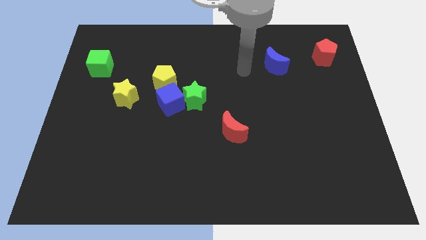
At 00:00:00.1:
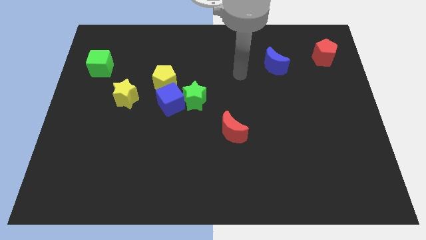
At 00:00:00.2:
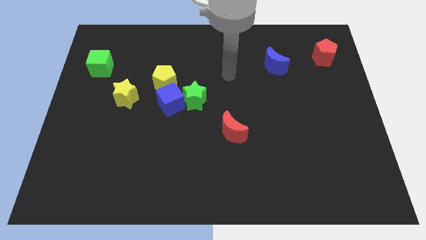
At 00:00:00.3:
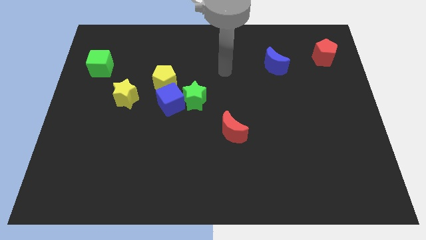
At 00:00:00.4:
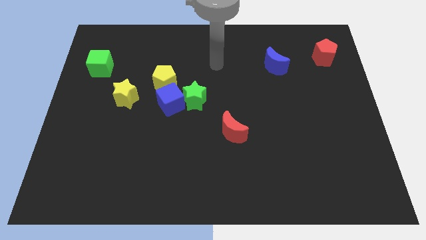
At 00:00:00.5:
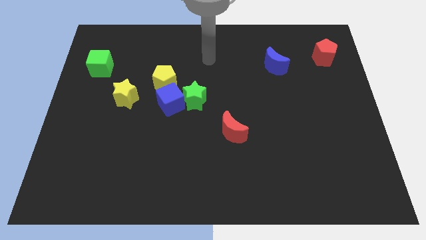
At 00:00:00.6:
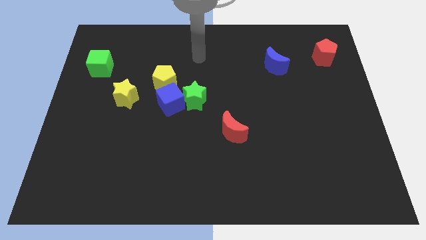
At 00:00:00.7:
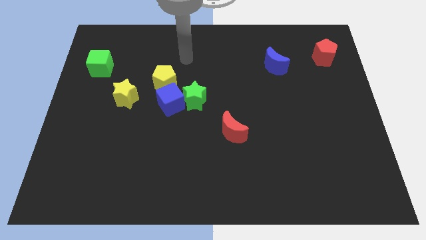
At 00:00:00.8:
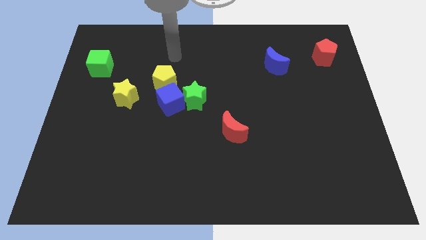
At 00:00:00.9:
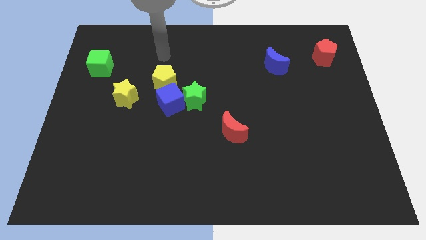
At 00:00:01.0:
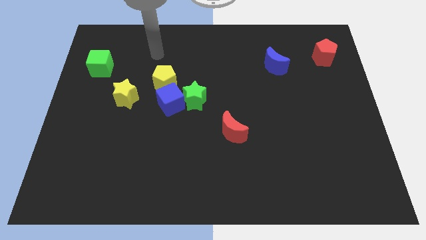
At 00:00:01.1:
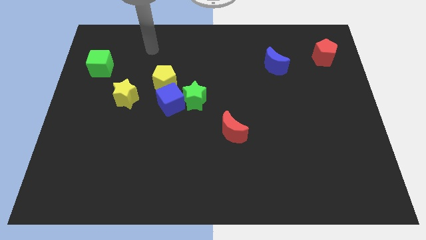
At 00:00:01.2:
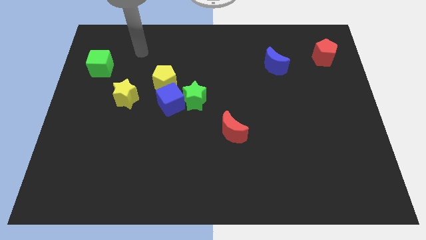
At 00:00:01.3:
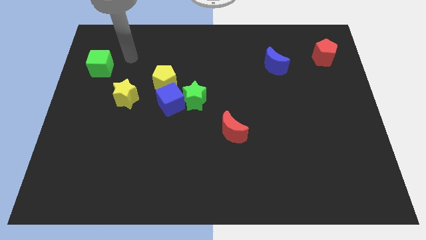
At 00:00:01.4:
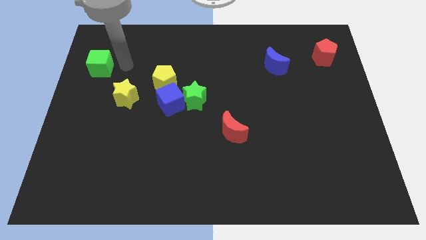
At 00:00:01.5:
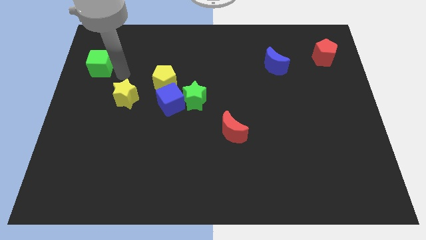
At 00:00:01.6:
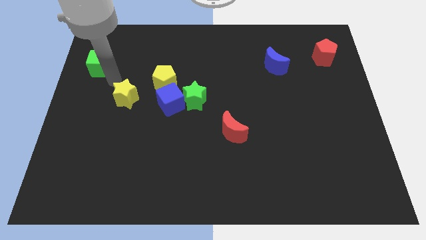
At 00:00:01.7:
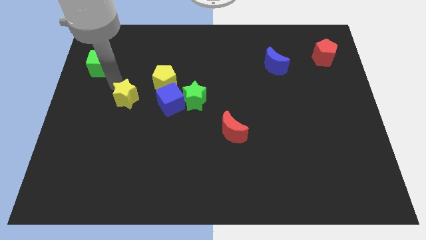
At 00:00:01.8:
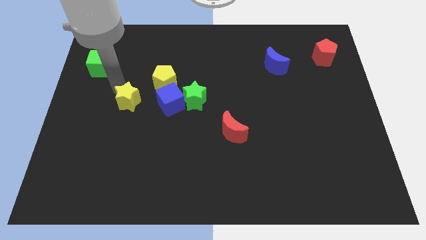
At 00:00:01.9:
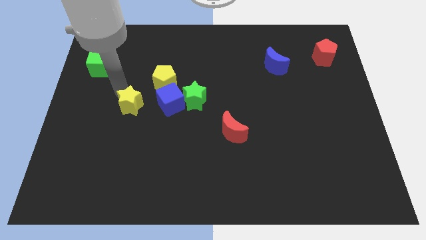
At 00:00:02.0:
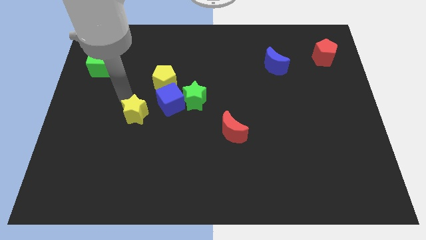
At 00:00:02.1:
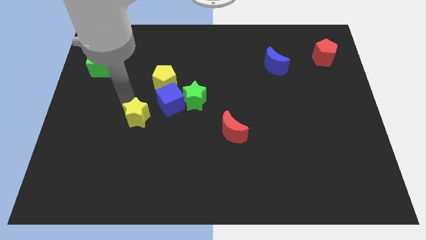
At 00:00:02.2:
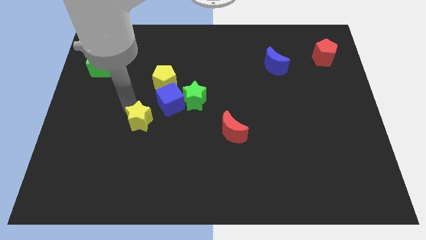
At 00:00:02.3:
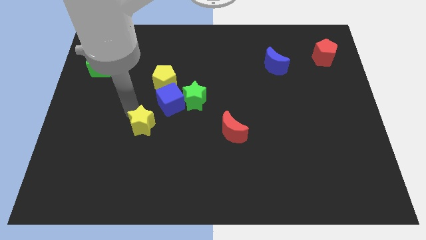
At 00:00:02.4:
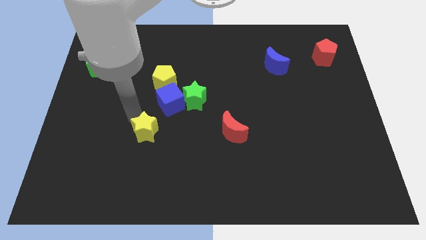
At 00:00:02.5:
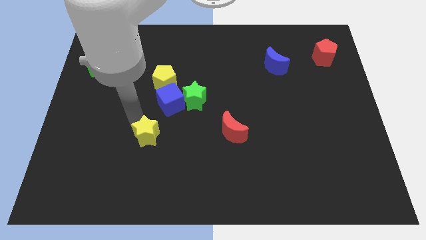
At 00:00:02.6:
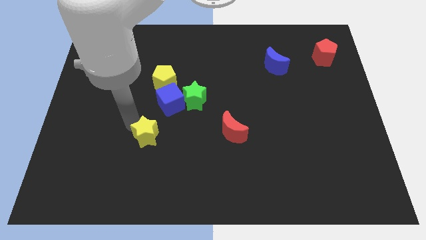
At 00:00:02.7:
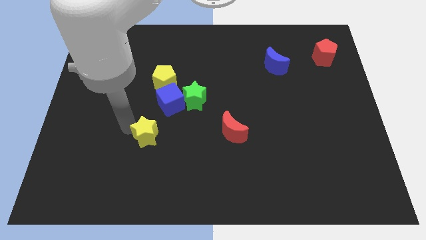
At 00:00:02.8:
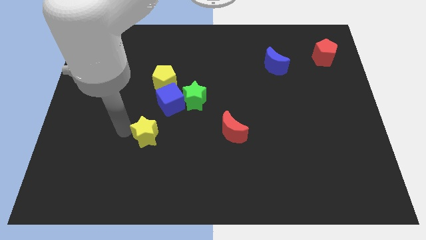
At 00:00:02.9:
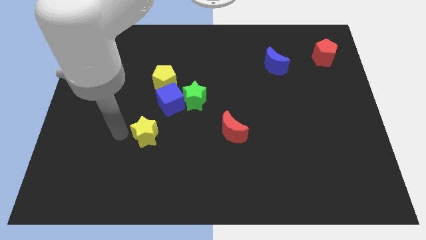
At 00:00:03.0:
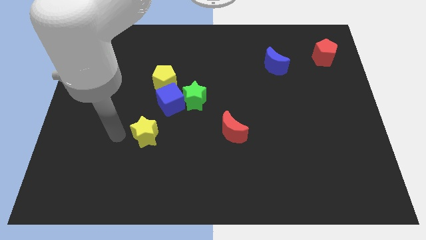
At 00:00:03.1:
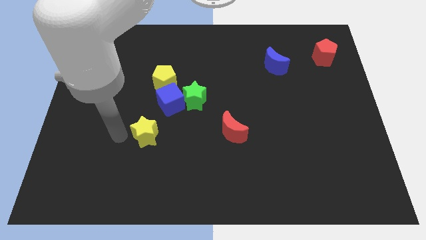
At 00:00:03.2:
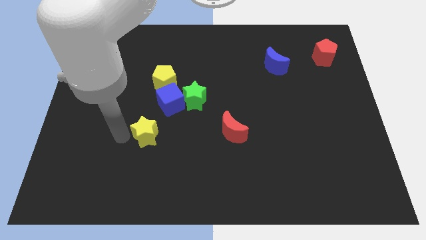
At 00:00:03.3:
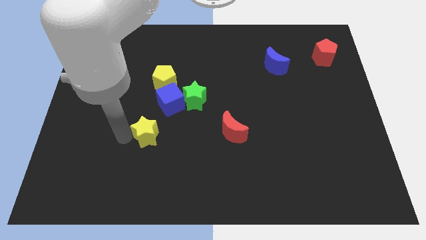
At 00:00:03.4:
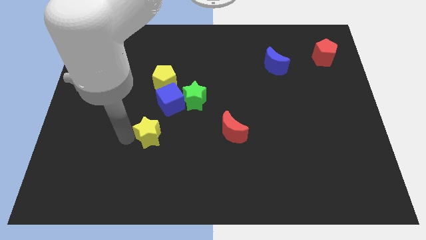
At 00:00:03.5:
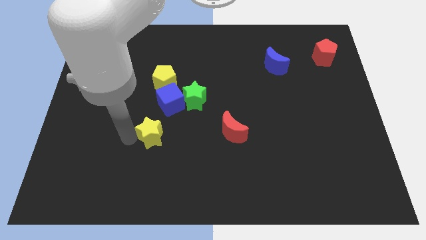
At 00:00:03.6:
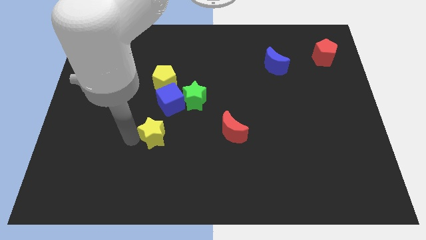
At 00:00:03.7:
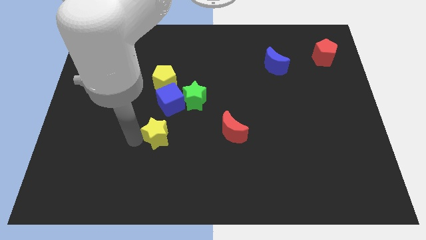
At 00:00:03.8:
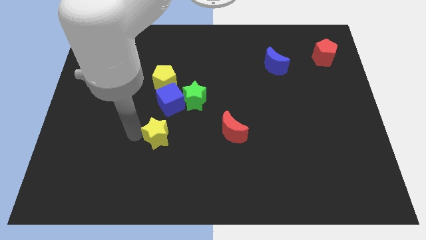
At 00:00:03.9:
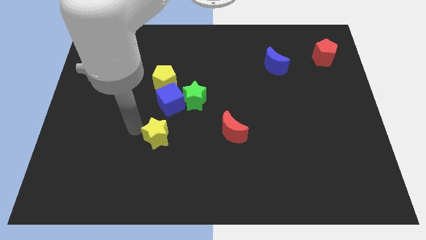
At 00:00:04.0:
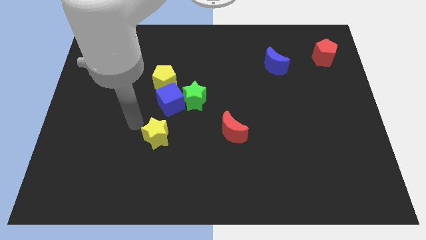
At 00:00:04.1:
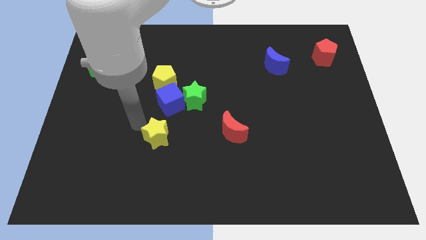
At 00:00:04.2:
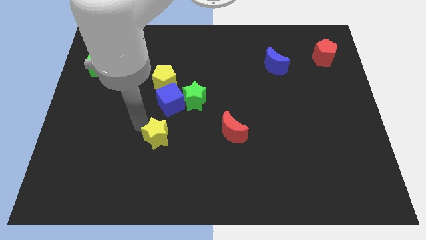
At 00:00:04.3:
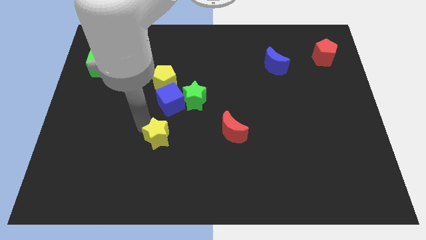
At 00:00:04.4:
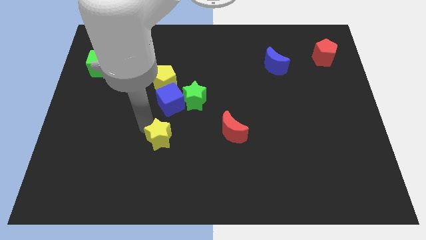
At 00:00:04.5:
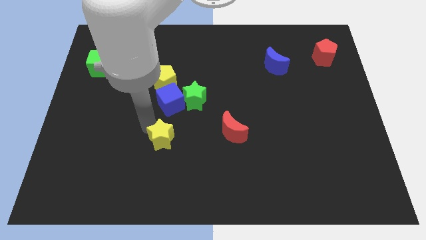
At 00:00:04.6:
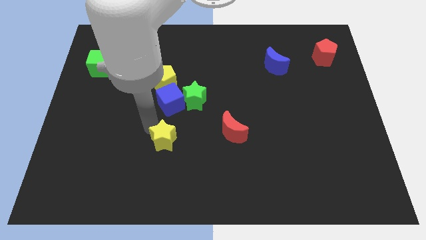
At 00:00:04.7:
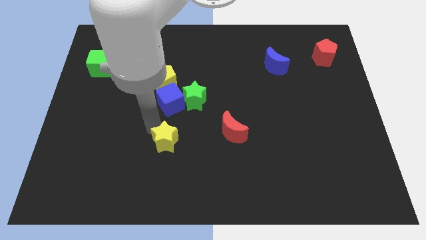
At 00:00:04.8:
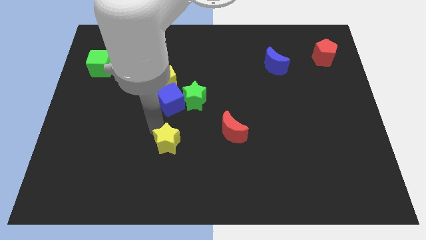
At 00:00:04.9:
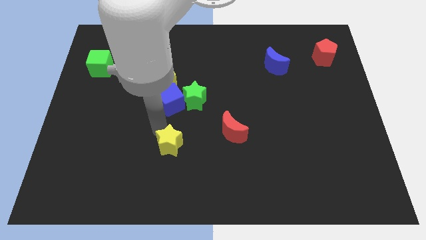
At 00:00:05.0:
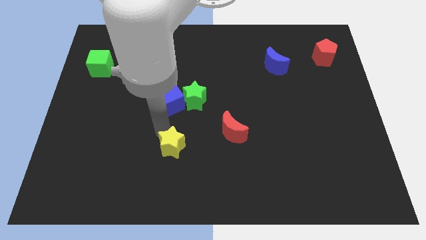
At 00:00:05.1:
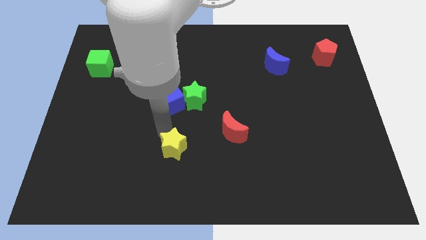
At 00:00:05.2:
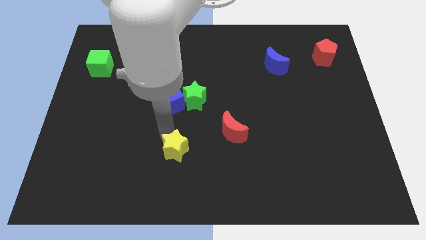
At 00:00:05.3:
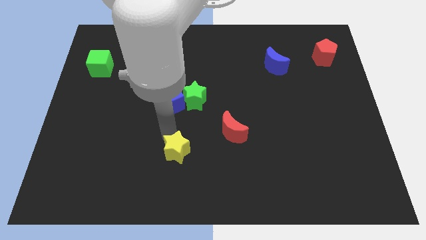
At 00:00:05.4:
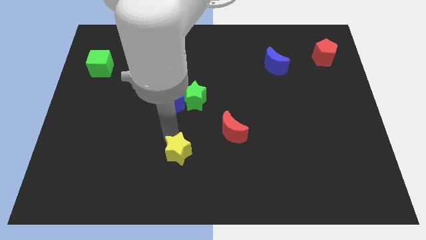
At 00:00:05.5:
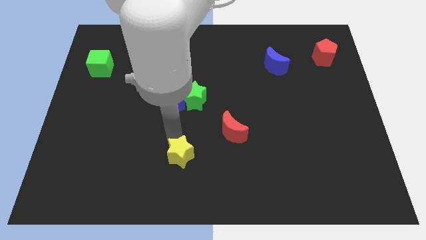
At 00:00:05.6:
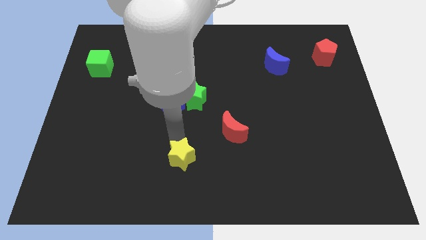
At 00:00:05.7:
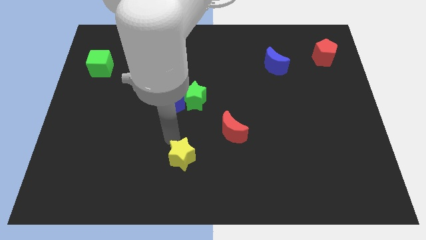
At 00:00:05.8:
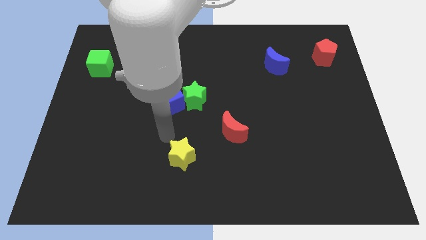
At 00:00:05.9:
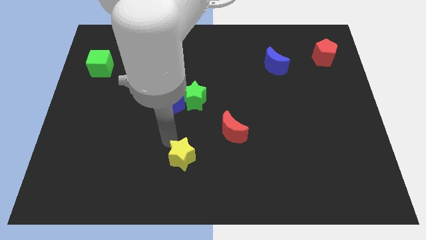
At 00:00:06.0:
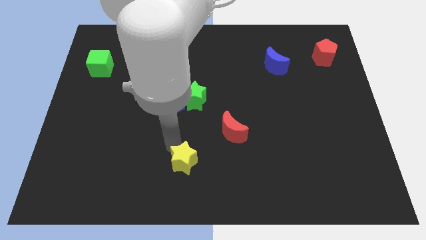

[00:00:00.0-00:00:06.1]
push the yellow star to the bottom

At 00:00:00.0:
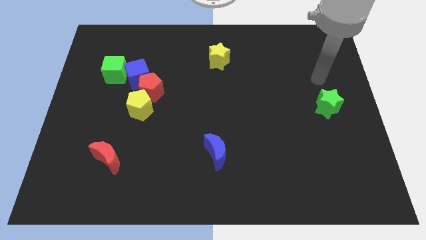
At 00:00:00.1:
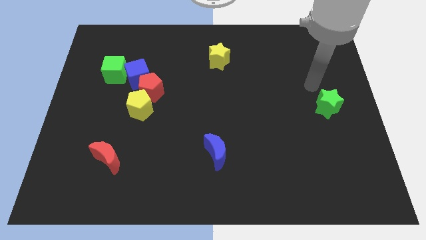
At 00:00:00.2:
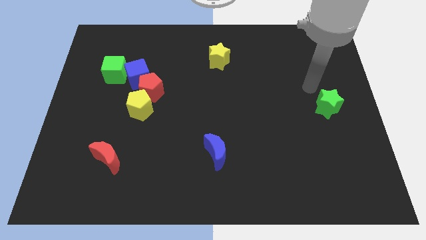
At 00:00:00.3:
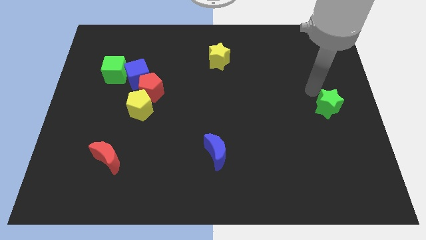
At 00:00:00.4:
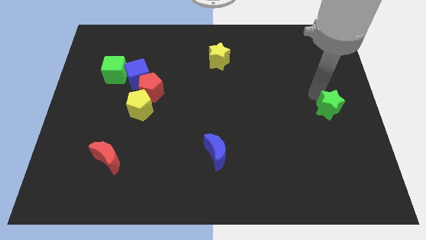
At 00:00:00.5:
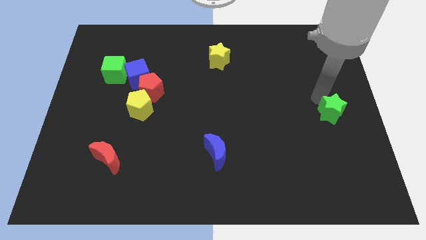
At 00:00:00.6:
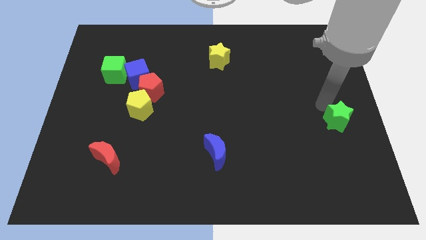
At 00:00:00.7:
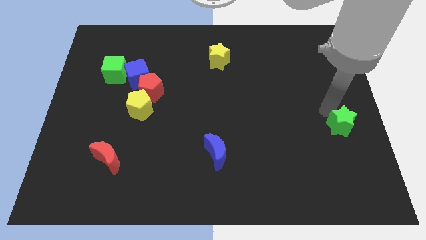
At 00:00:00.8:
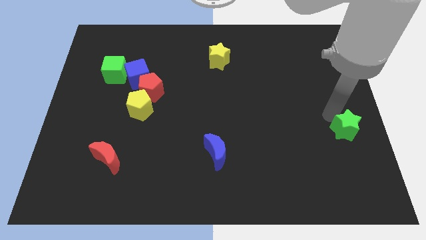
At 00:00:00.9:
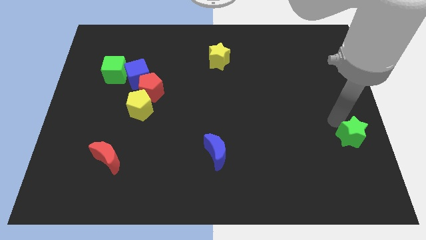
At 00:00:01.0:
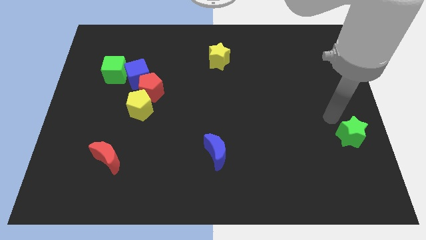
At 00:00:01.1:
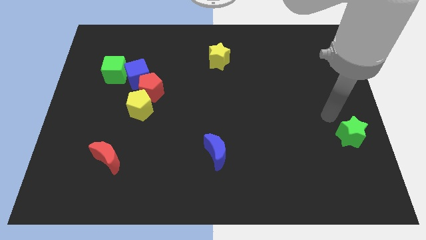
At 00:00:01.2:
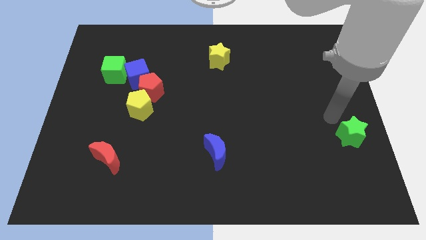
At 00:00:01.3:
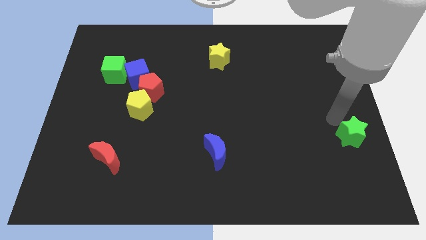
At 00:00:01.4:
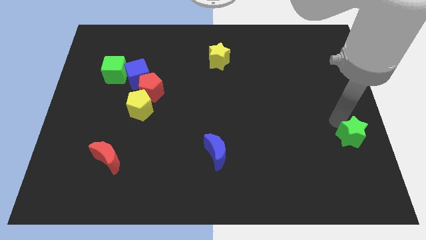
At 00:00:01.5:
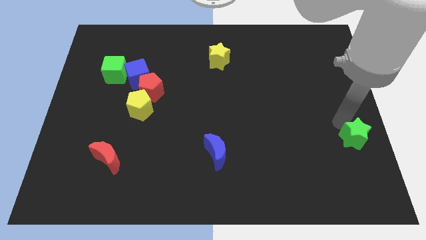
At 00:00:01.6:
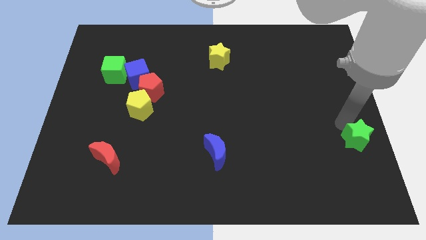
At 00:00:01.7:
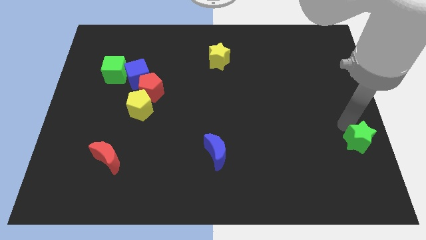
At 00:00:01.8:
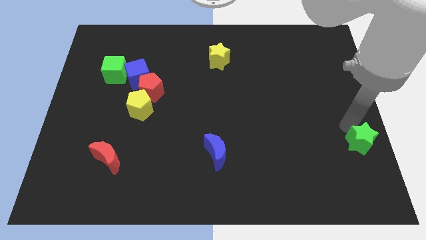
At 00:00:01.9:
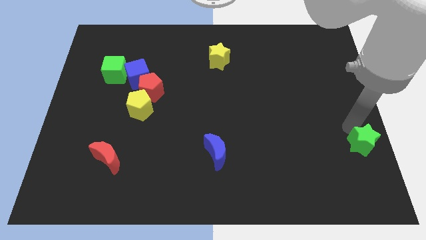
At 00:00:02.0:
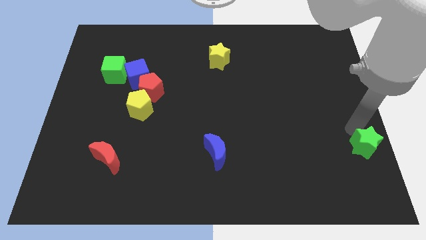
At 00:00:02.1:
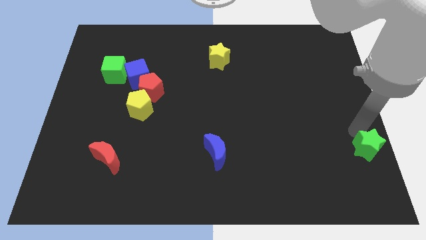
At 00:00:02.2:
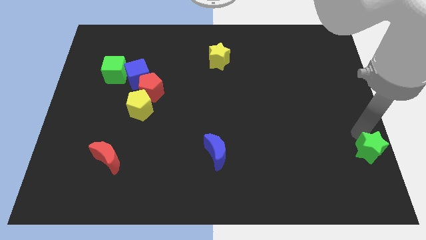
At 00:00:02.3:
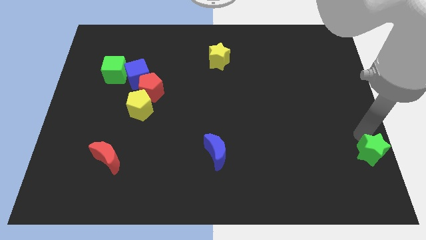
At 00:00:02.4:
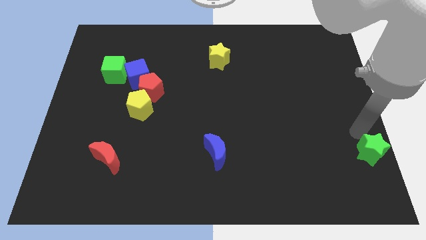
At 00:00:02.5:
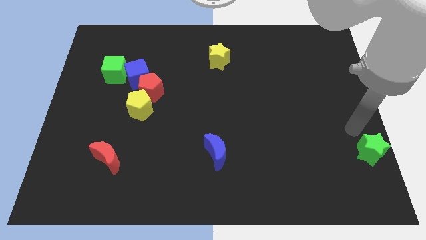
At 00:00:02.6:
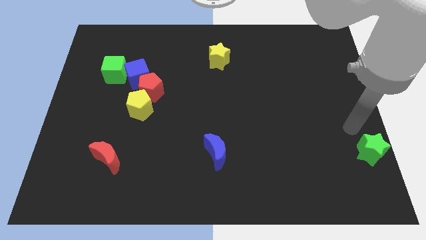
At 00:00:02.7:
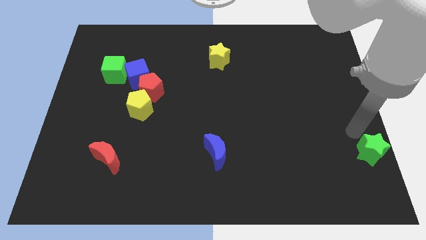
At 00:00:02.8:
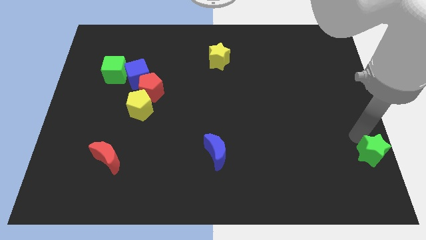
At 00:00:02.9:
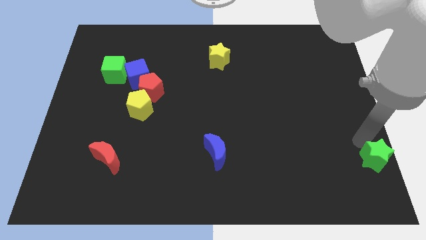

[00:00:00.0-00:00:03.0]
put the green star to the bottom right of the board
